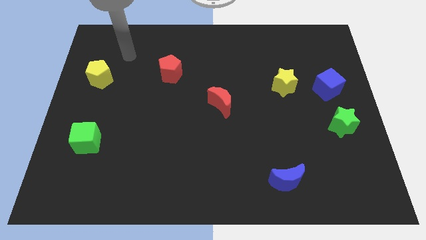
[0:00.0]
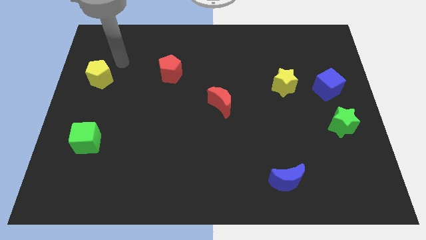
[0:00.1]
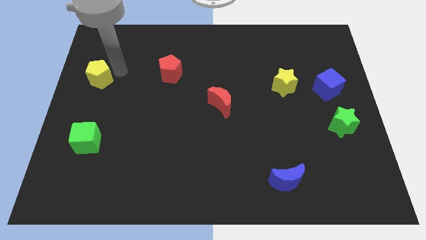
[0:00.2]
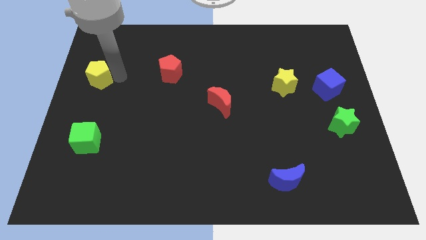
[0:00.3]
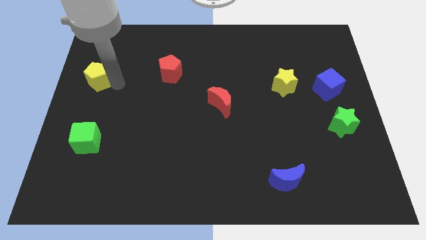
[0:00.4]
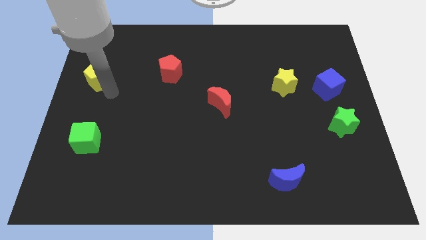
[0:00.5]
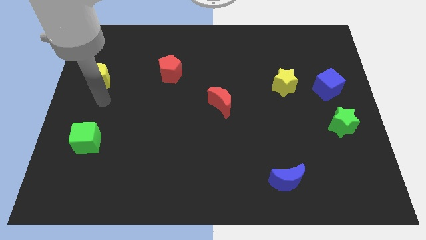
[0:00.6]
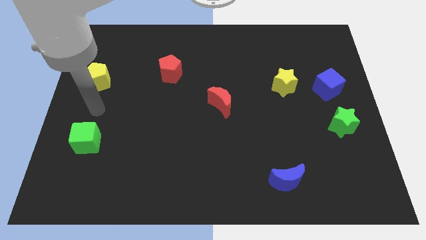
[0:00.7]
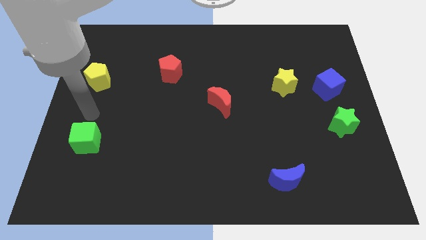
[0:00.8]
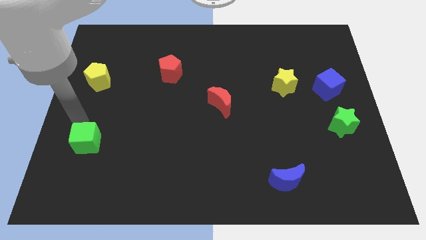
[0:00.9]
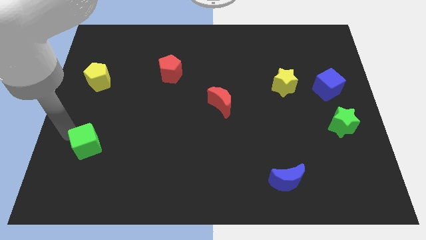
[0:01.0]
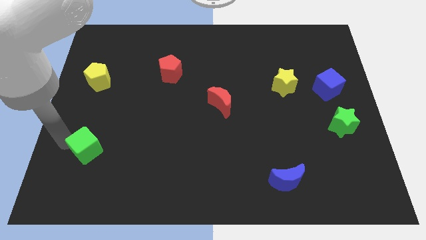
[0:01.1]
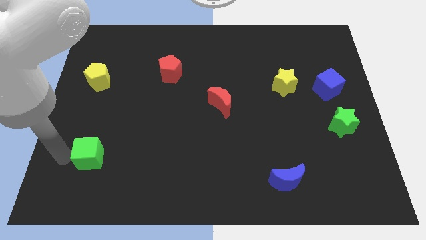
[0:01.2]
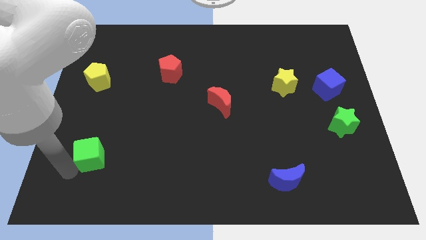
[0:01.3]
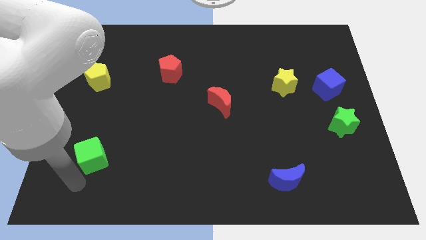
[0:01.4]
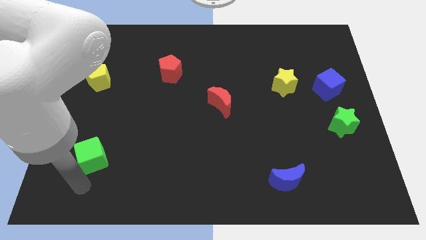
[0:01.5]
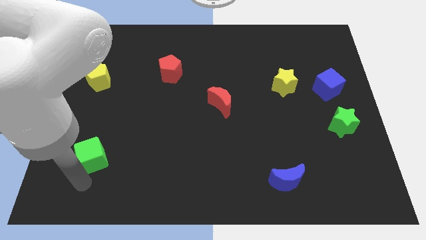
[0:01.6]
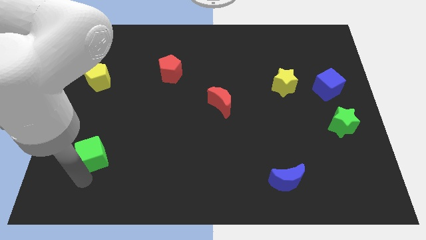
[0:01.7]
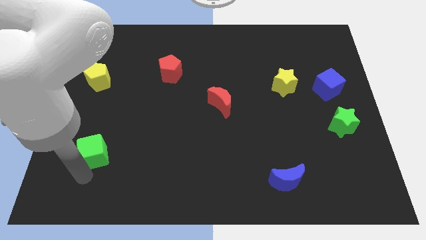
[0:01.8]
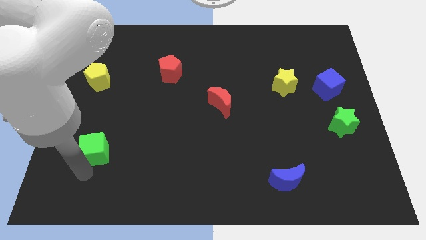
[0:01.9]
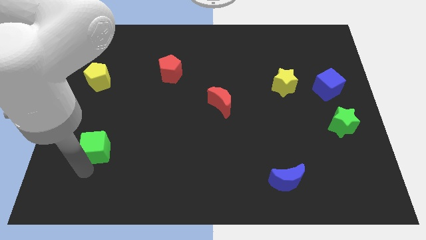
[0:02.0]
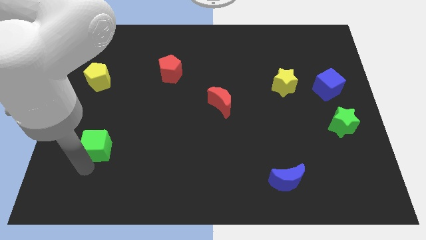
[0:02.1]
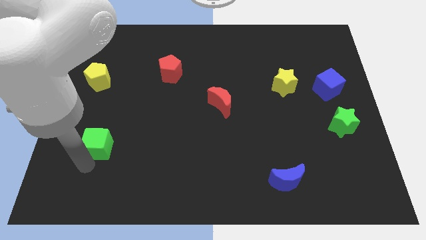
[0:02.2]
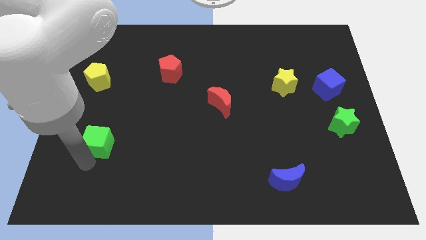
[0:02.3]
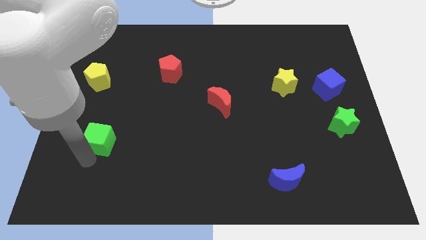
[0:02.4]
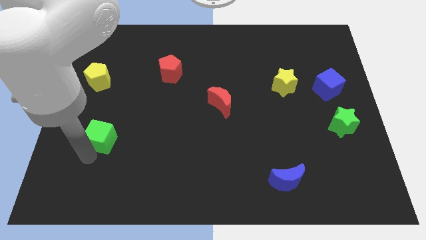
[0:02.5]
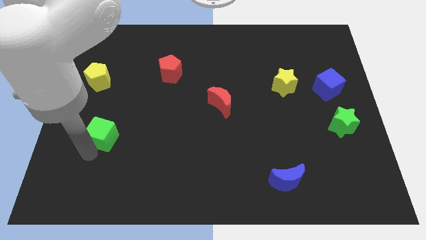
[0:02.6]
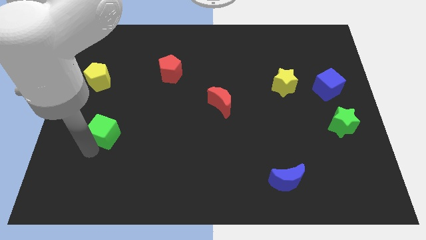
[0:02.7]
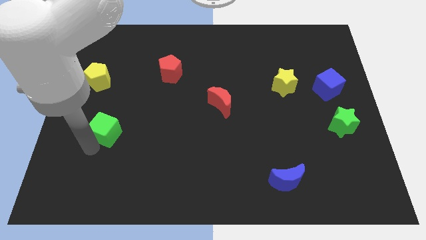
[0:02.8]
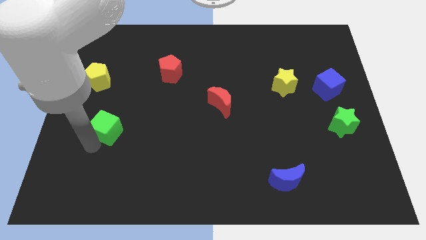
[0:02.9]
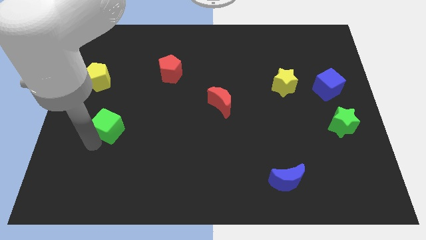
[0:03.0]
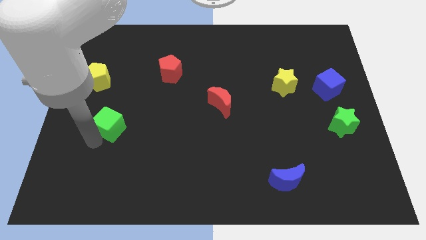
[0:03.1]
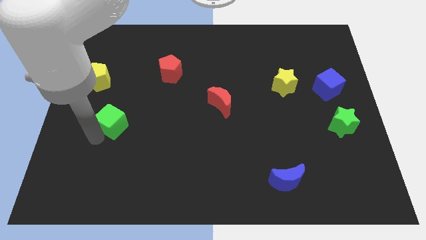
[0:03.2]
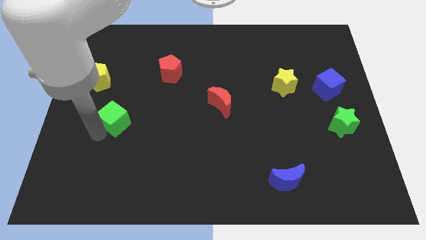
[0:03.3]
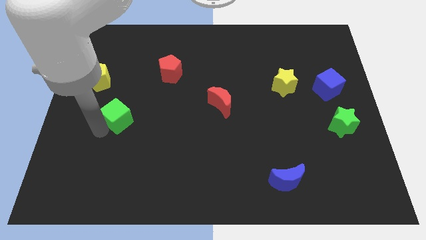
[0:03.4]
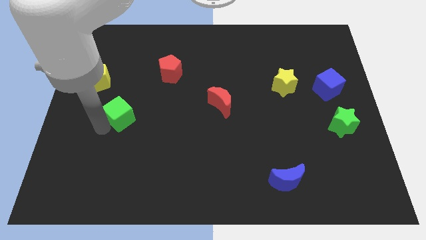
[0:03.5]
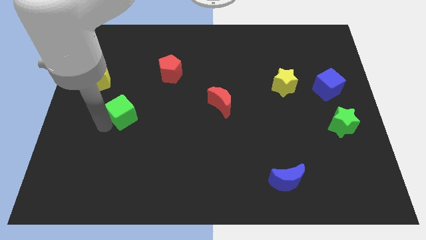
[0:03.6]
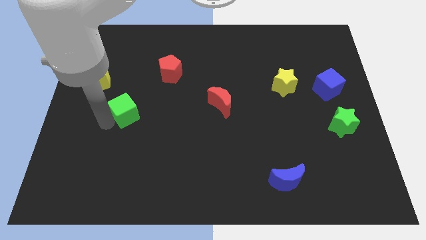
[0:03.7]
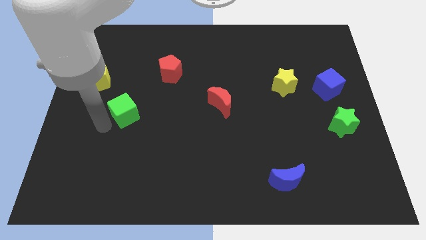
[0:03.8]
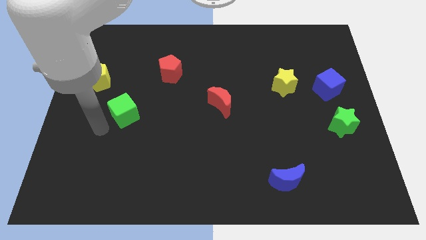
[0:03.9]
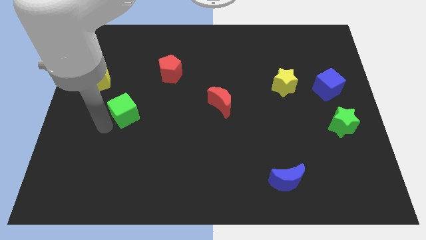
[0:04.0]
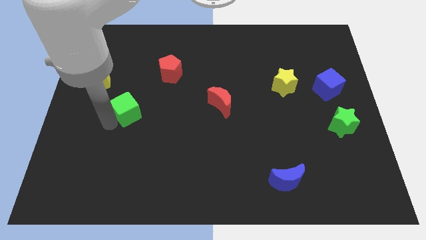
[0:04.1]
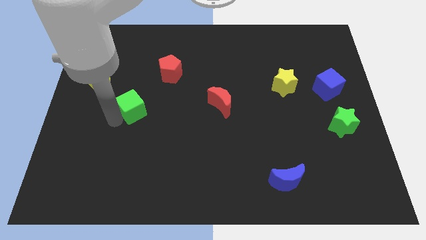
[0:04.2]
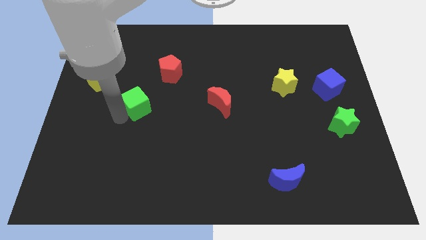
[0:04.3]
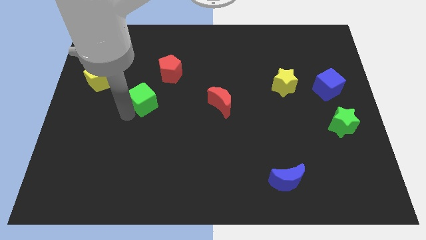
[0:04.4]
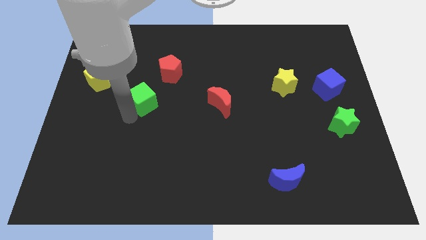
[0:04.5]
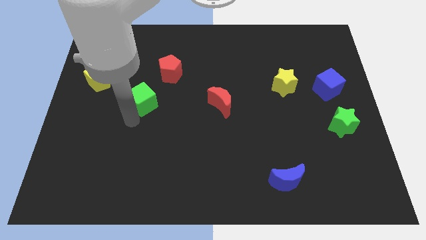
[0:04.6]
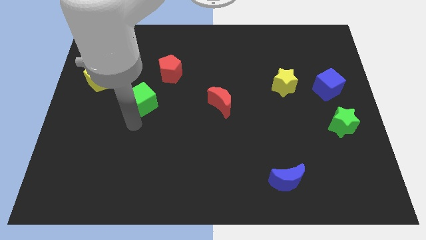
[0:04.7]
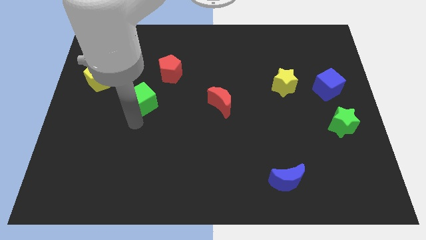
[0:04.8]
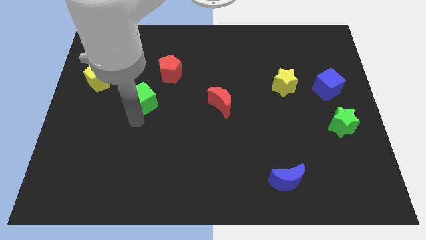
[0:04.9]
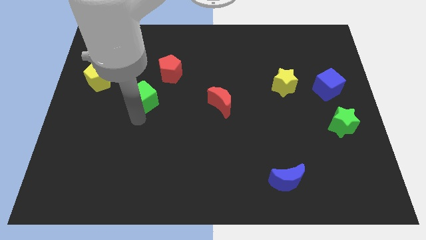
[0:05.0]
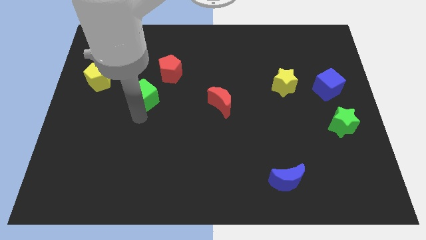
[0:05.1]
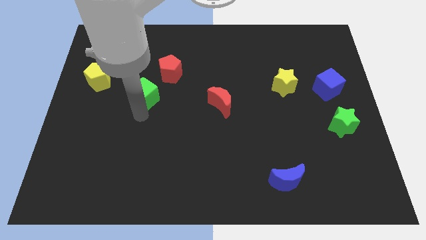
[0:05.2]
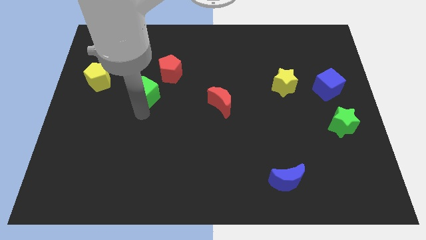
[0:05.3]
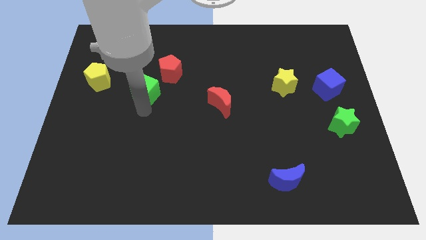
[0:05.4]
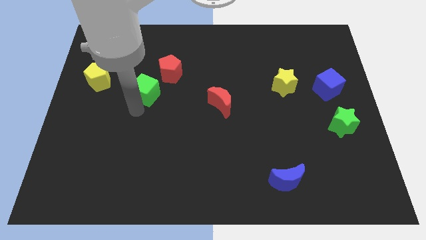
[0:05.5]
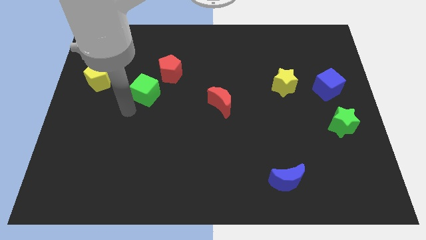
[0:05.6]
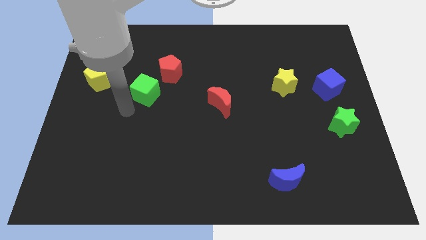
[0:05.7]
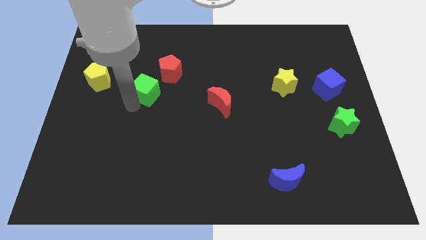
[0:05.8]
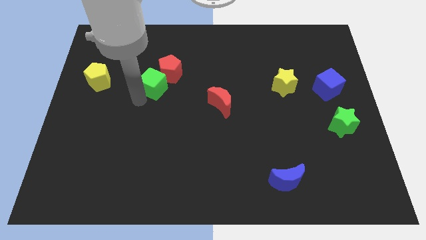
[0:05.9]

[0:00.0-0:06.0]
put the green cube next to the red pentagon

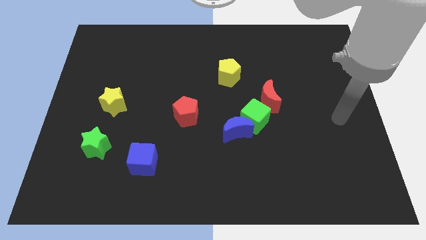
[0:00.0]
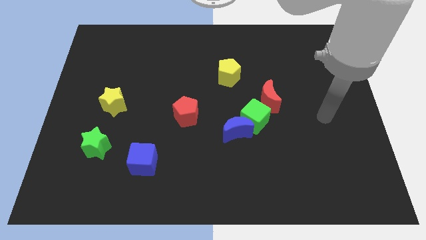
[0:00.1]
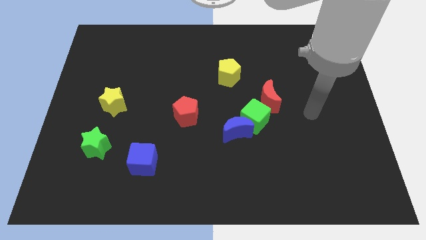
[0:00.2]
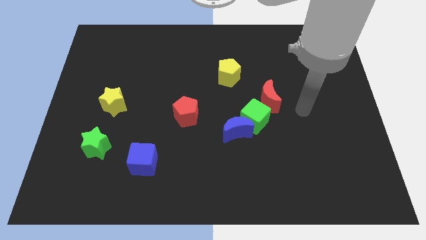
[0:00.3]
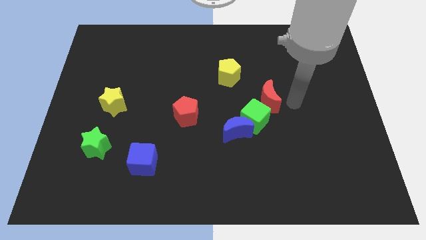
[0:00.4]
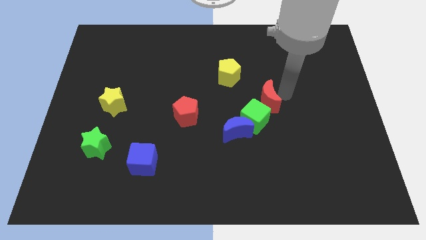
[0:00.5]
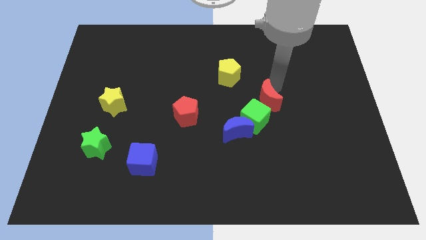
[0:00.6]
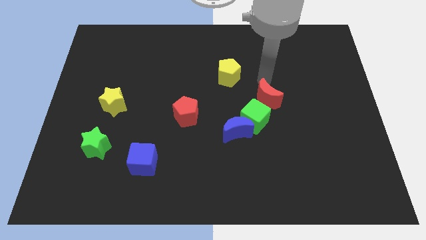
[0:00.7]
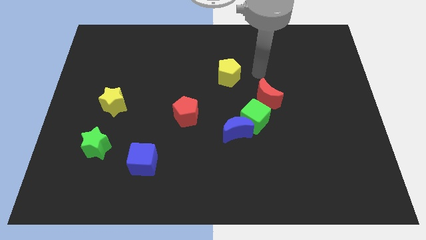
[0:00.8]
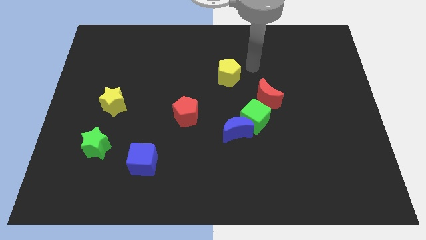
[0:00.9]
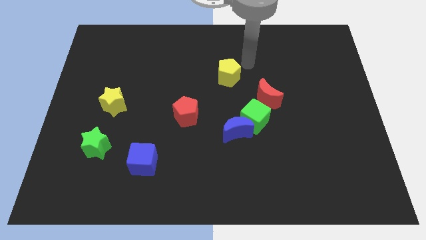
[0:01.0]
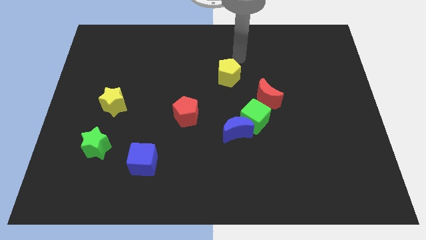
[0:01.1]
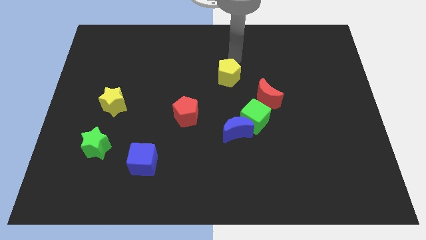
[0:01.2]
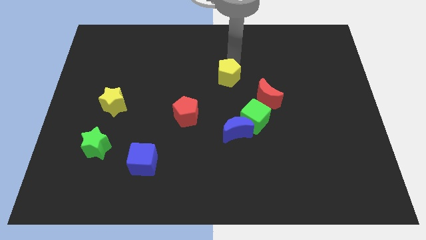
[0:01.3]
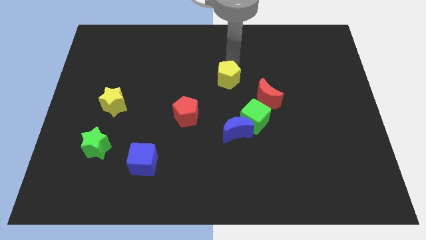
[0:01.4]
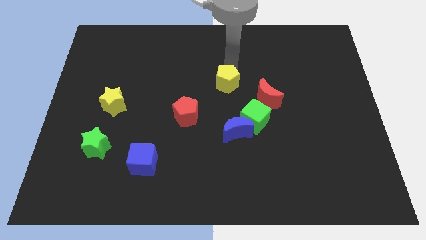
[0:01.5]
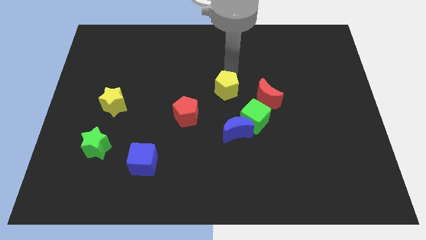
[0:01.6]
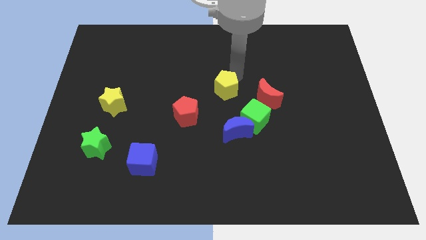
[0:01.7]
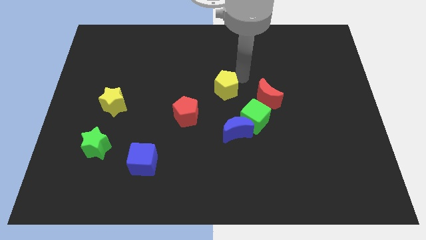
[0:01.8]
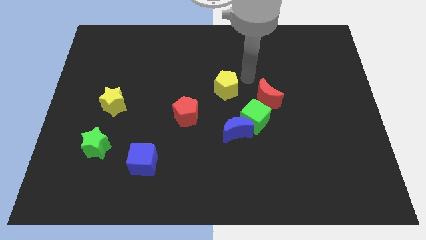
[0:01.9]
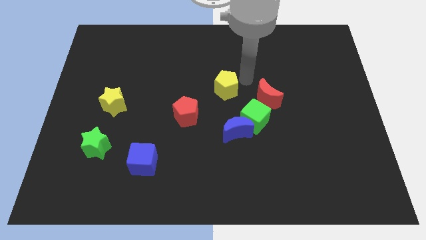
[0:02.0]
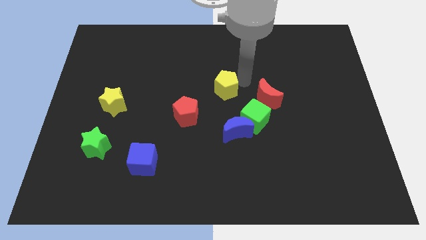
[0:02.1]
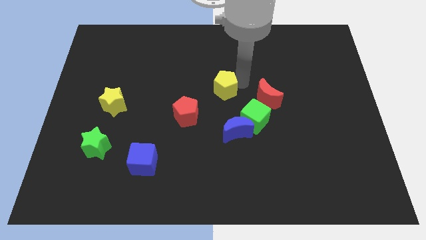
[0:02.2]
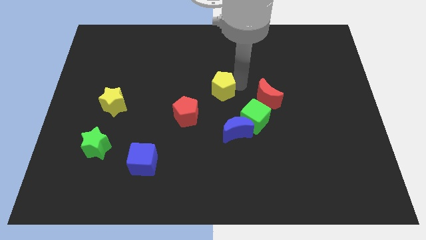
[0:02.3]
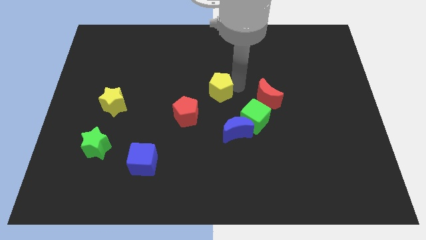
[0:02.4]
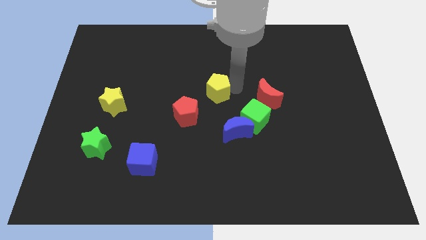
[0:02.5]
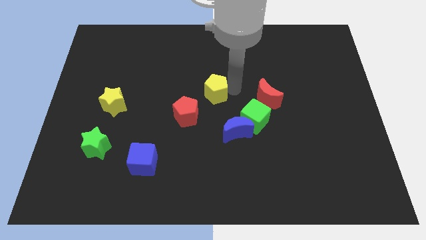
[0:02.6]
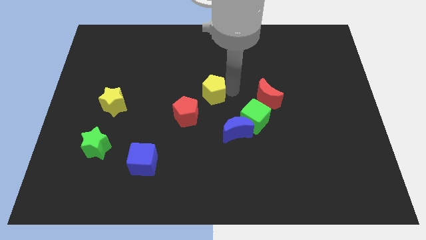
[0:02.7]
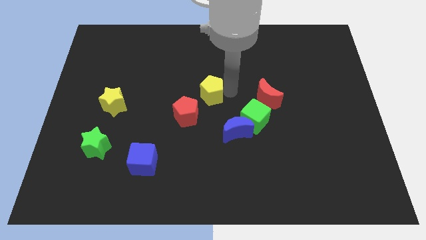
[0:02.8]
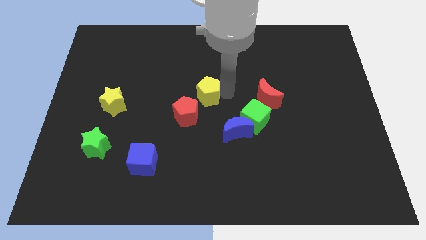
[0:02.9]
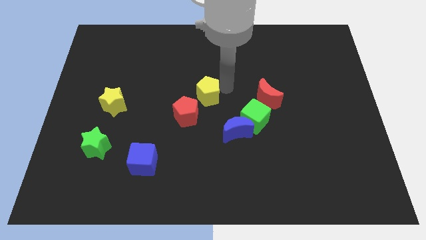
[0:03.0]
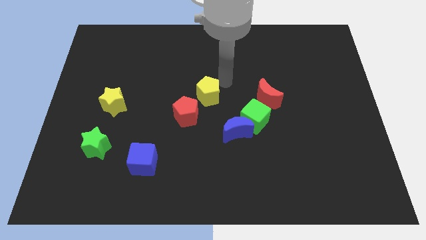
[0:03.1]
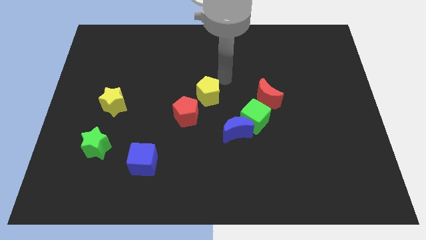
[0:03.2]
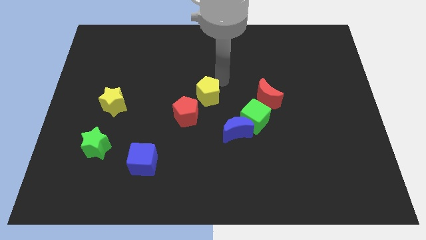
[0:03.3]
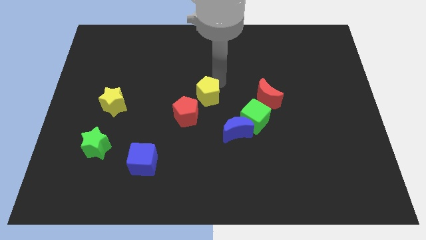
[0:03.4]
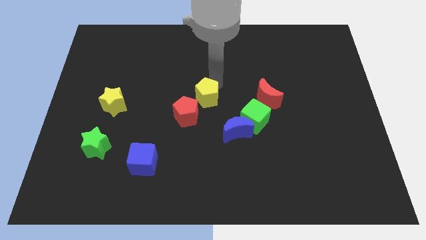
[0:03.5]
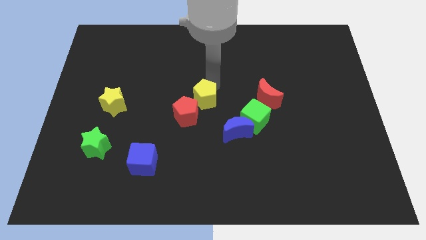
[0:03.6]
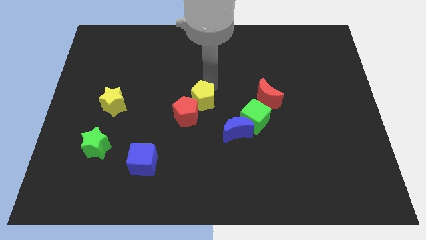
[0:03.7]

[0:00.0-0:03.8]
slide the yellow pentagon next to the red pentagon
